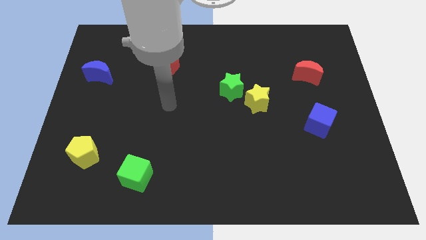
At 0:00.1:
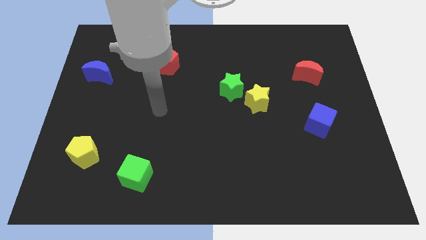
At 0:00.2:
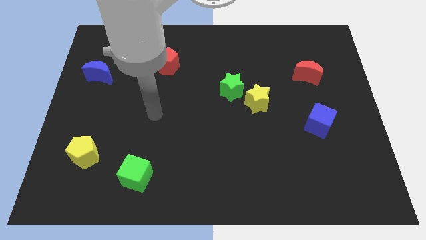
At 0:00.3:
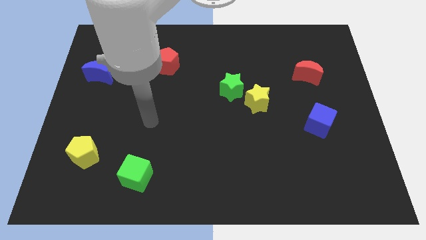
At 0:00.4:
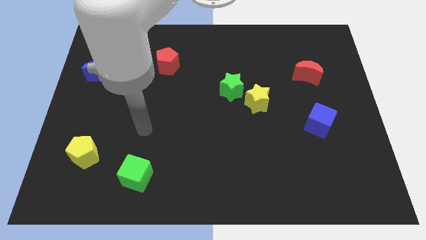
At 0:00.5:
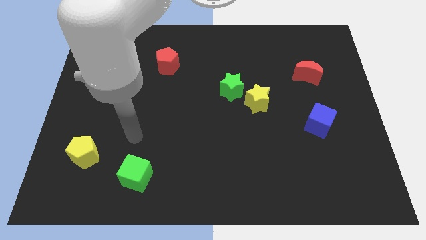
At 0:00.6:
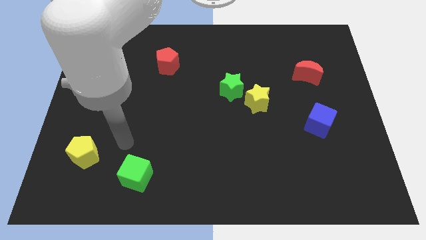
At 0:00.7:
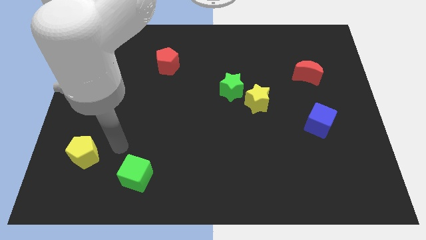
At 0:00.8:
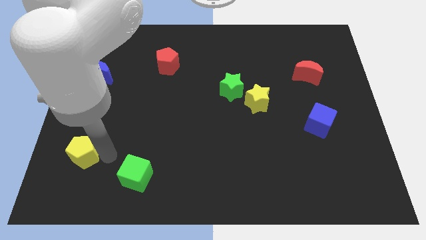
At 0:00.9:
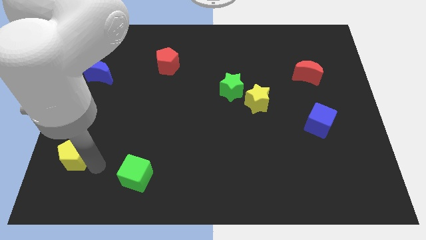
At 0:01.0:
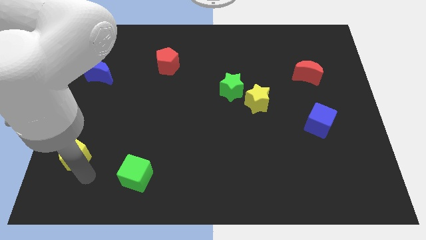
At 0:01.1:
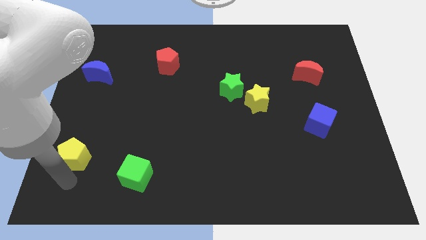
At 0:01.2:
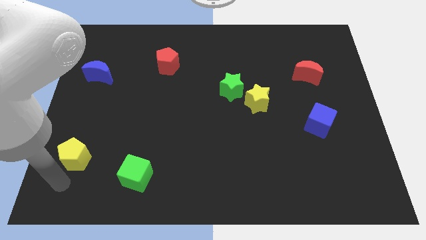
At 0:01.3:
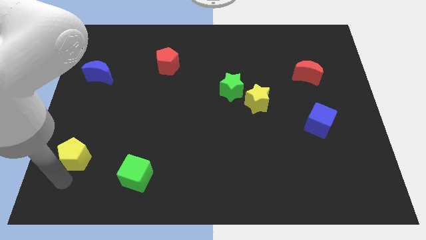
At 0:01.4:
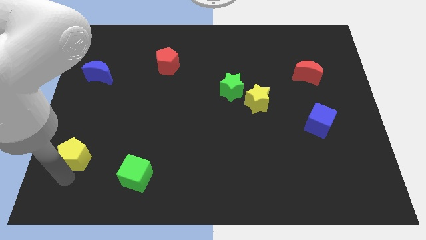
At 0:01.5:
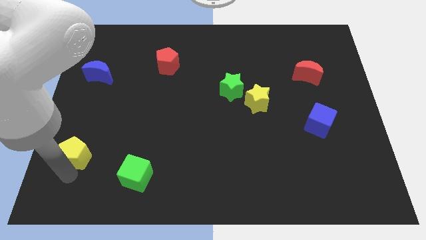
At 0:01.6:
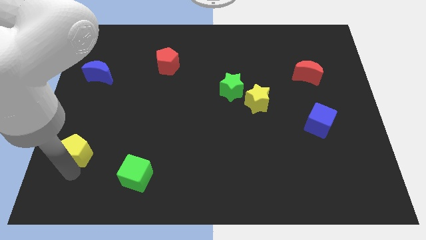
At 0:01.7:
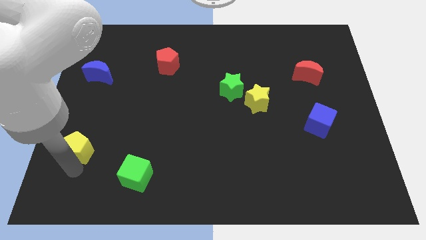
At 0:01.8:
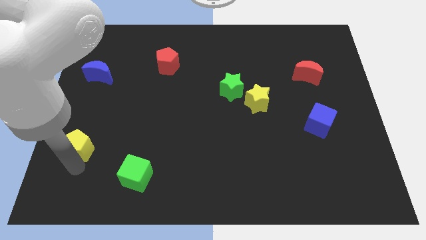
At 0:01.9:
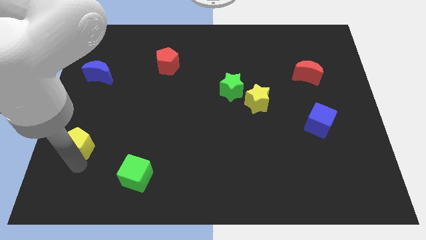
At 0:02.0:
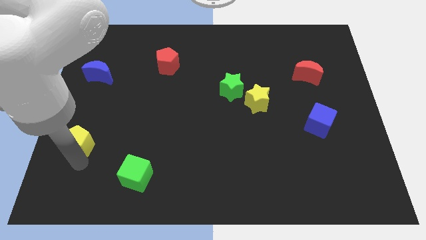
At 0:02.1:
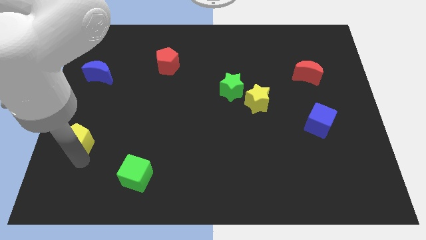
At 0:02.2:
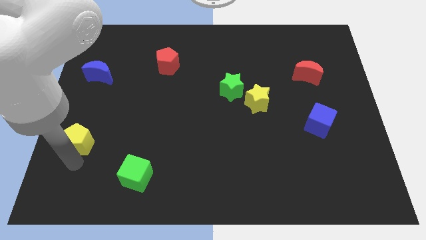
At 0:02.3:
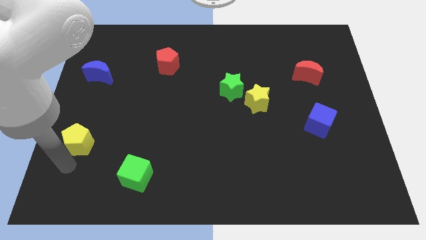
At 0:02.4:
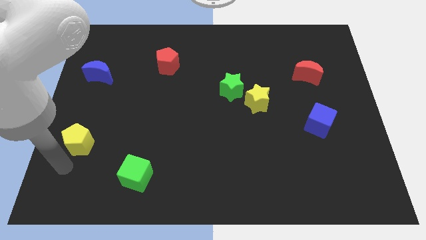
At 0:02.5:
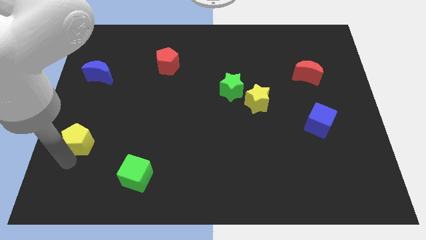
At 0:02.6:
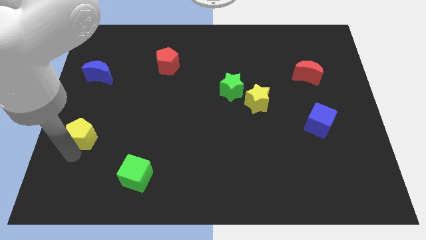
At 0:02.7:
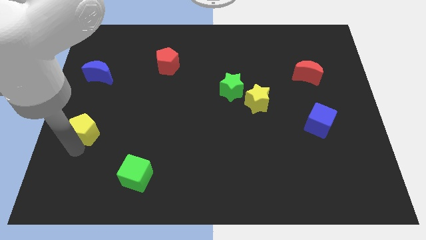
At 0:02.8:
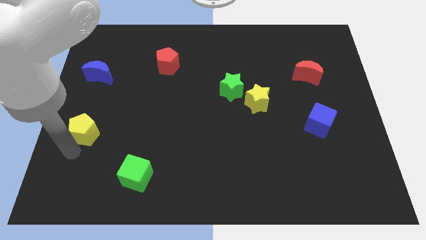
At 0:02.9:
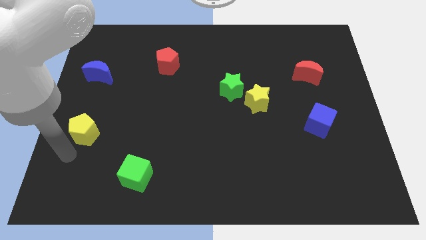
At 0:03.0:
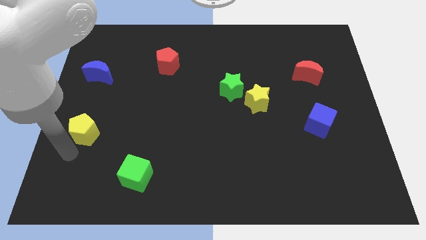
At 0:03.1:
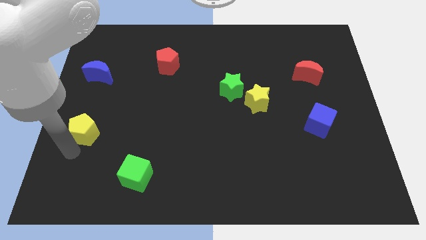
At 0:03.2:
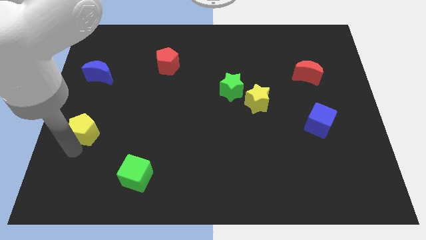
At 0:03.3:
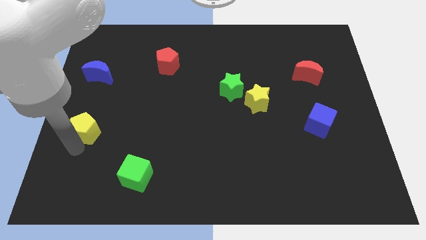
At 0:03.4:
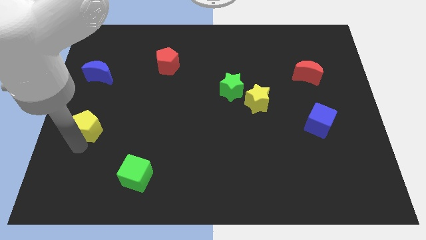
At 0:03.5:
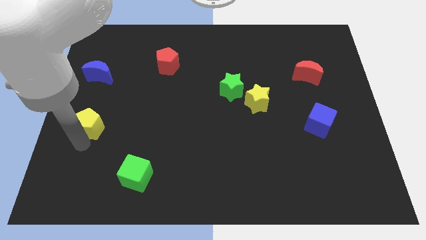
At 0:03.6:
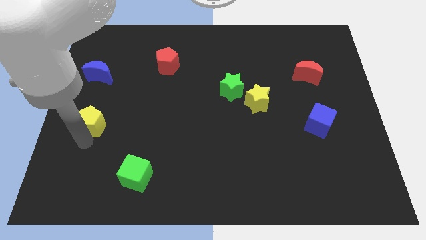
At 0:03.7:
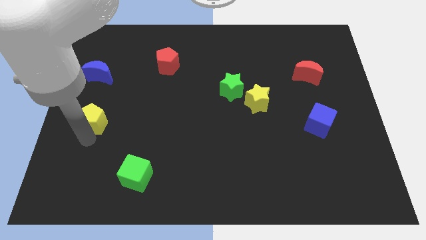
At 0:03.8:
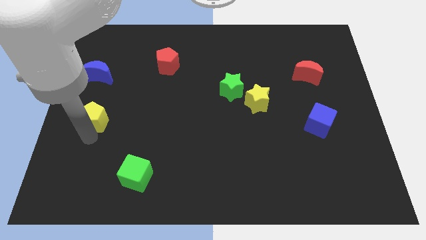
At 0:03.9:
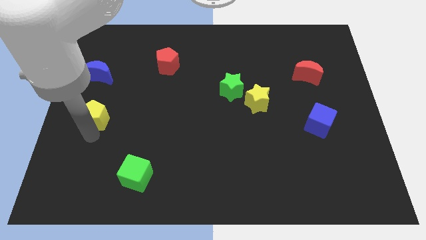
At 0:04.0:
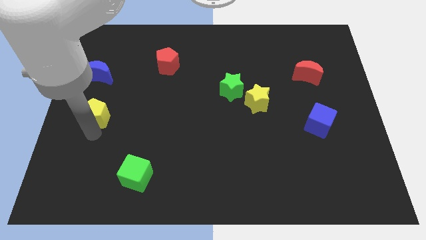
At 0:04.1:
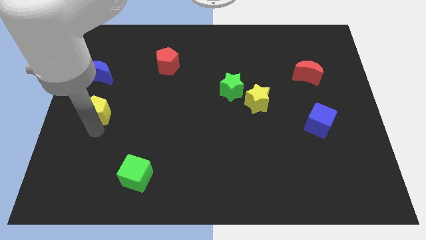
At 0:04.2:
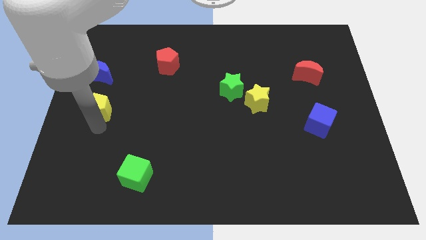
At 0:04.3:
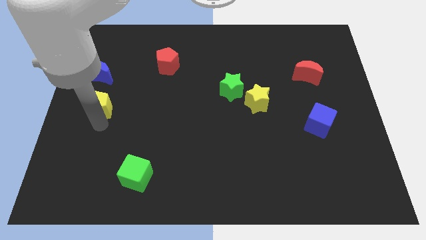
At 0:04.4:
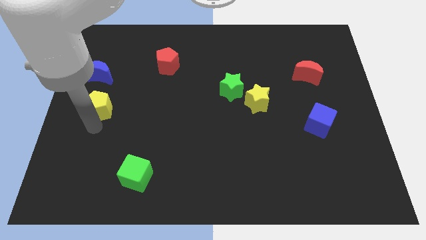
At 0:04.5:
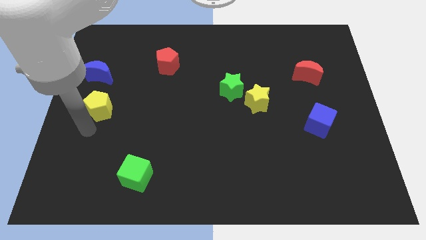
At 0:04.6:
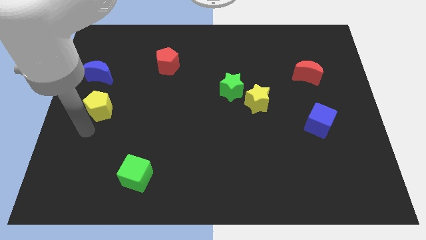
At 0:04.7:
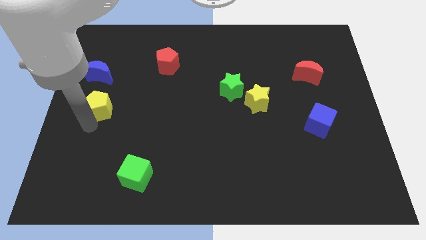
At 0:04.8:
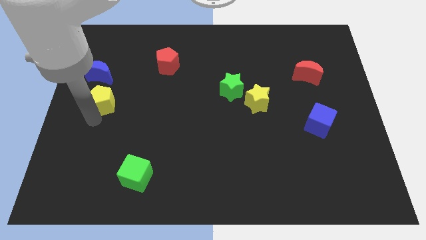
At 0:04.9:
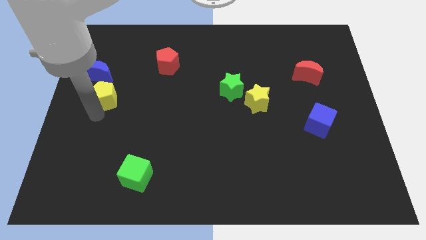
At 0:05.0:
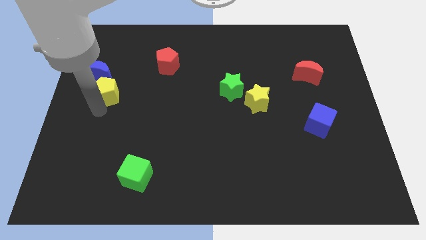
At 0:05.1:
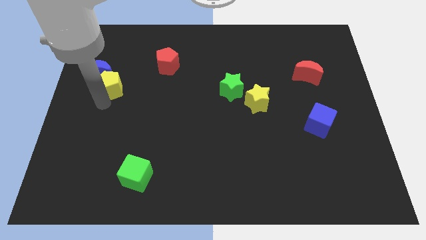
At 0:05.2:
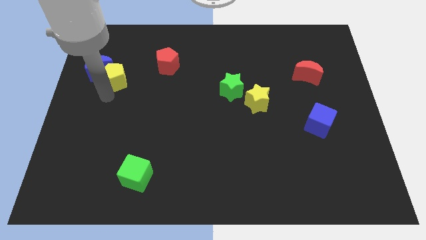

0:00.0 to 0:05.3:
move the yellow pentagon to the left side of the red pentagon

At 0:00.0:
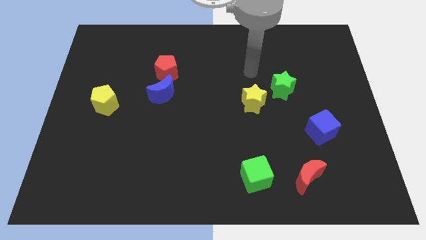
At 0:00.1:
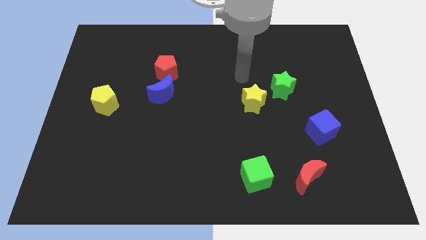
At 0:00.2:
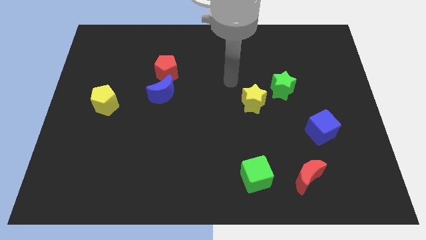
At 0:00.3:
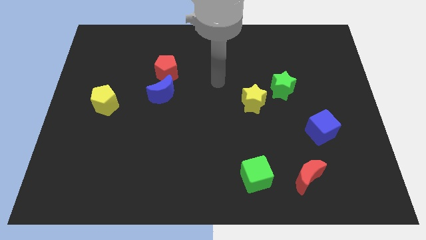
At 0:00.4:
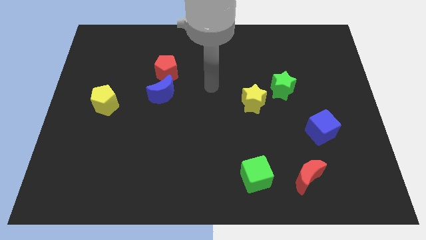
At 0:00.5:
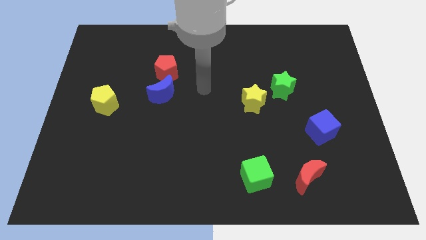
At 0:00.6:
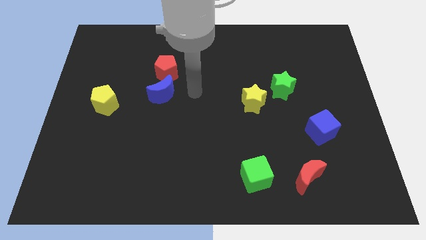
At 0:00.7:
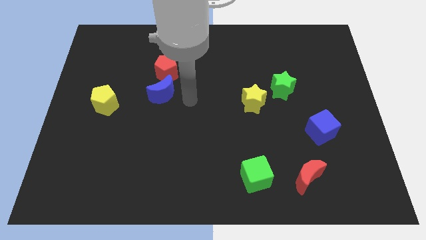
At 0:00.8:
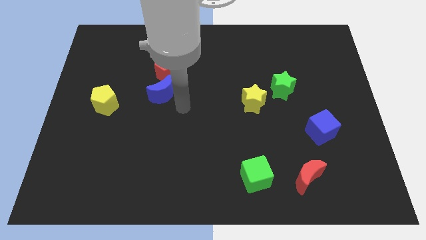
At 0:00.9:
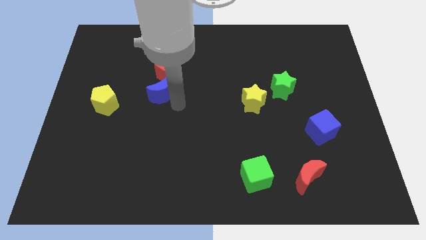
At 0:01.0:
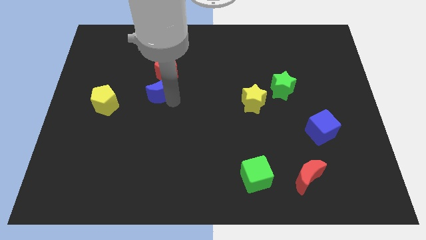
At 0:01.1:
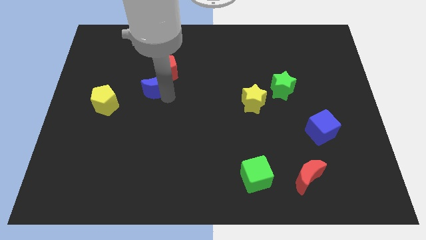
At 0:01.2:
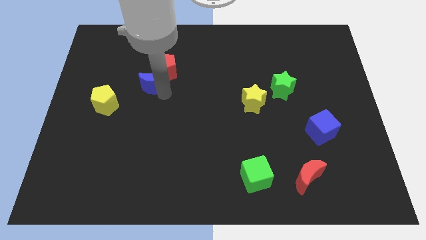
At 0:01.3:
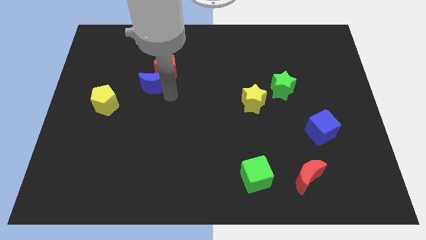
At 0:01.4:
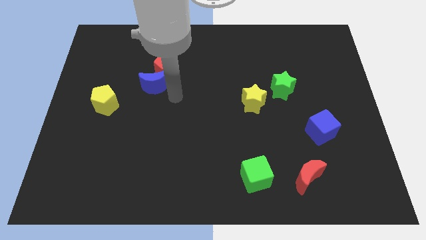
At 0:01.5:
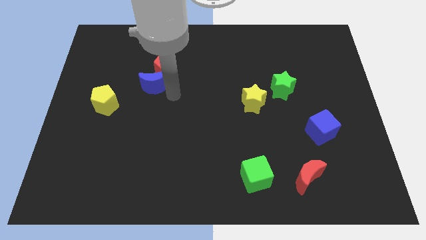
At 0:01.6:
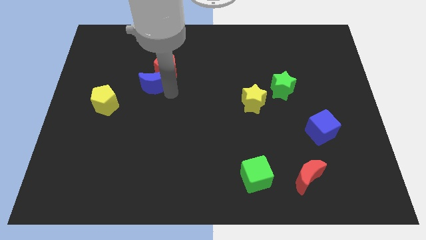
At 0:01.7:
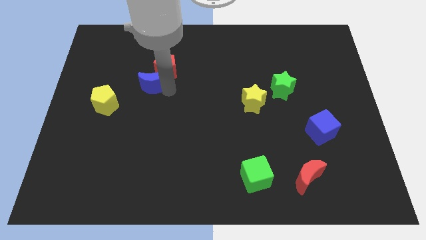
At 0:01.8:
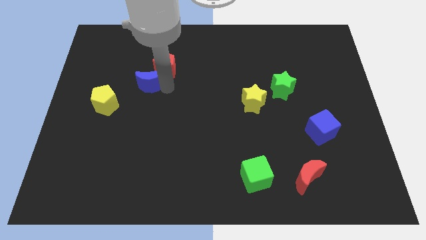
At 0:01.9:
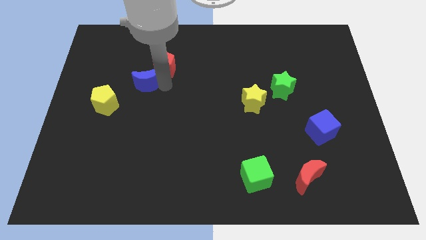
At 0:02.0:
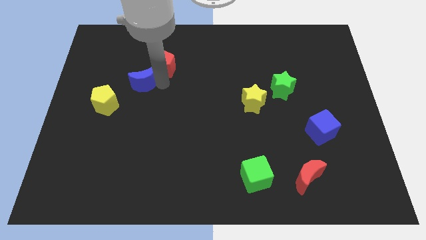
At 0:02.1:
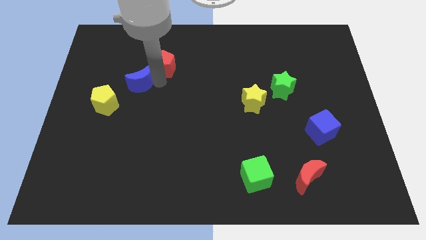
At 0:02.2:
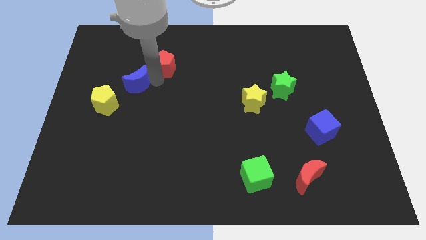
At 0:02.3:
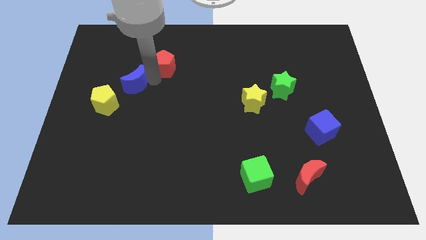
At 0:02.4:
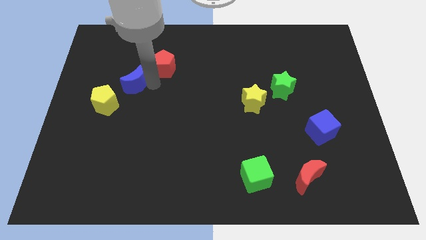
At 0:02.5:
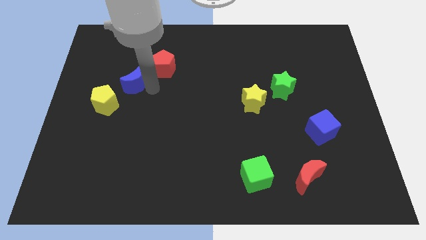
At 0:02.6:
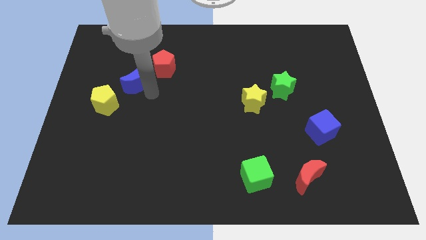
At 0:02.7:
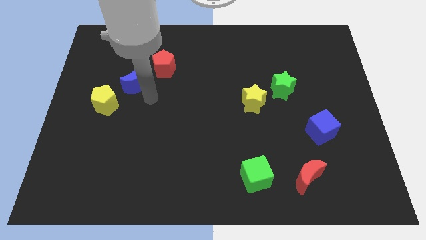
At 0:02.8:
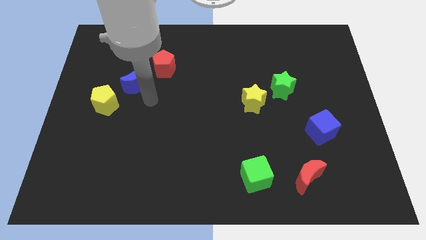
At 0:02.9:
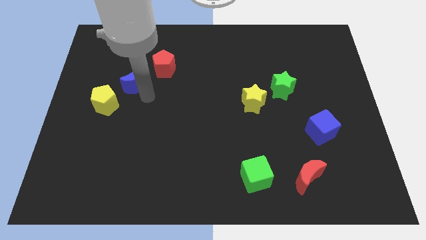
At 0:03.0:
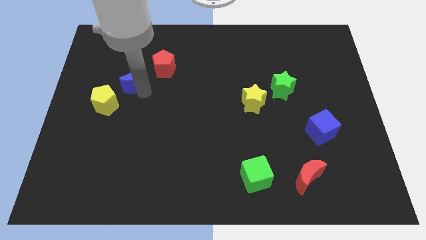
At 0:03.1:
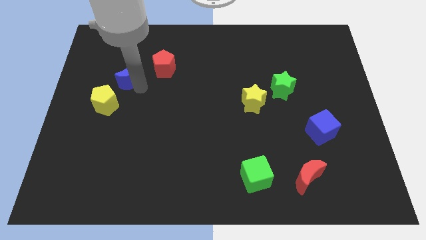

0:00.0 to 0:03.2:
move the blue moon to the left of the red pentagon
